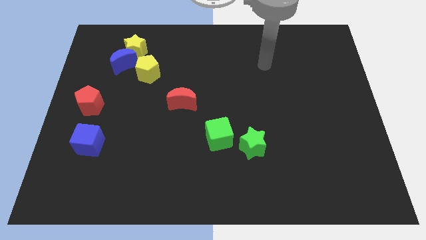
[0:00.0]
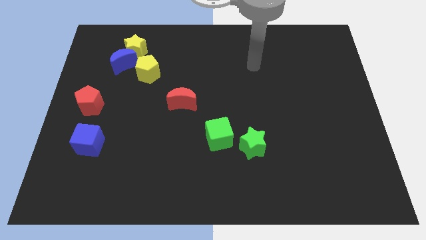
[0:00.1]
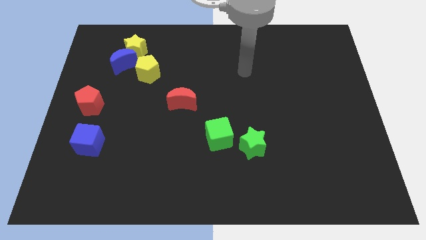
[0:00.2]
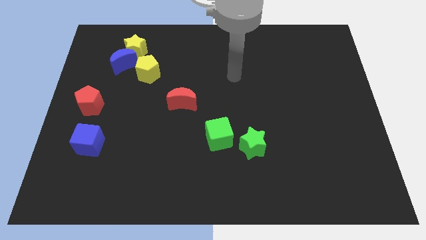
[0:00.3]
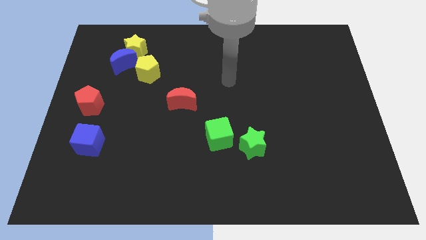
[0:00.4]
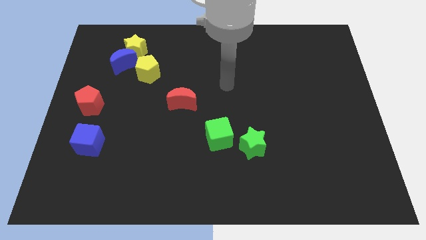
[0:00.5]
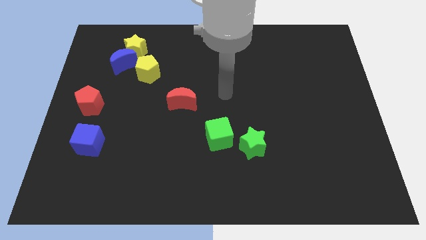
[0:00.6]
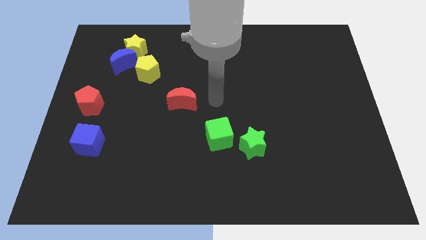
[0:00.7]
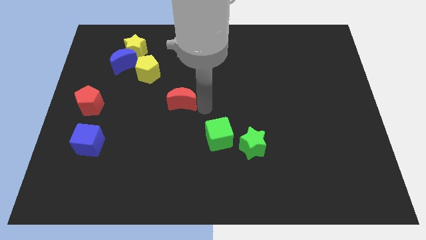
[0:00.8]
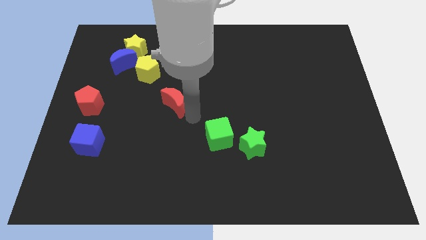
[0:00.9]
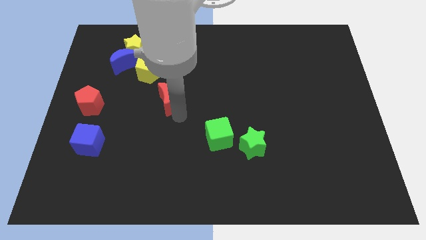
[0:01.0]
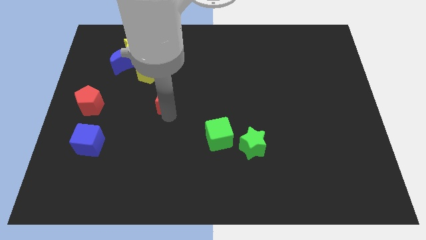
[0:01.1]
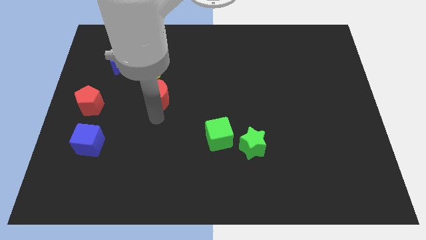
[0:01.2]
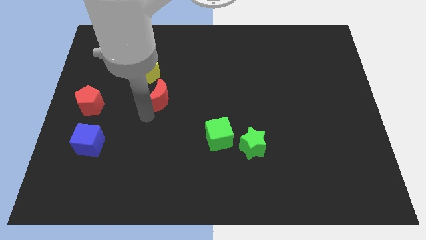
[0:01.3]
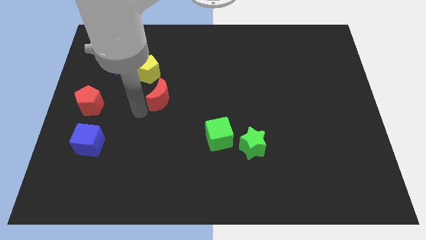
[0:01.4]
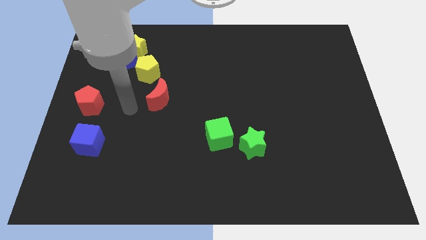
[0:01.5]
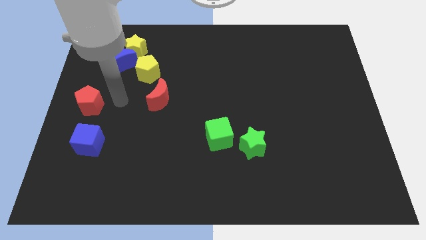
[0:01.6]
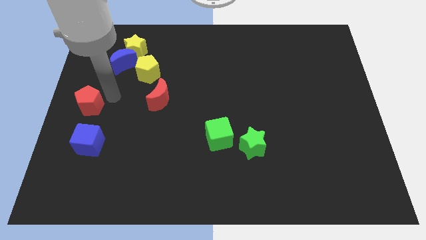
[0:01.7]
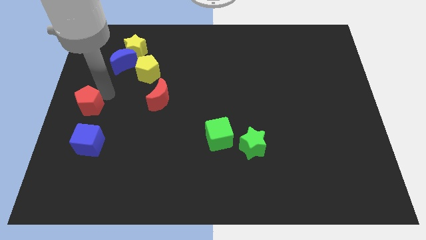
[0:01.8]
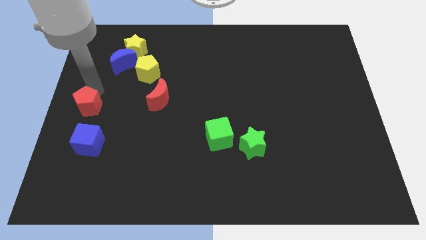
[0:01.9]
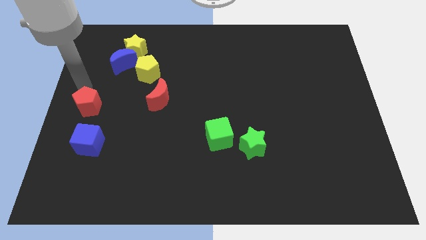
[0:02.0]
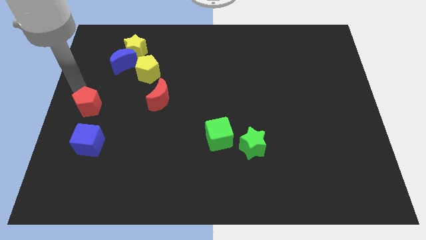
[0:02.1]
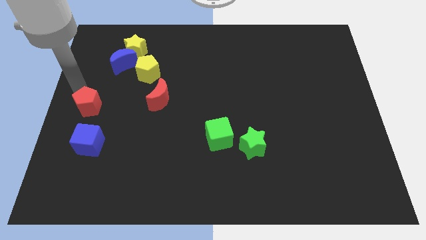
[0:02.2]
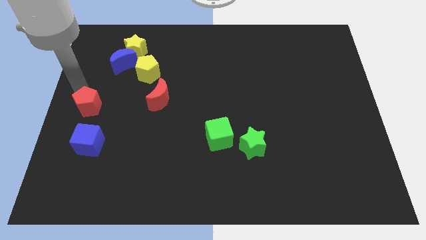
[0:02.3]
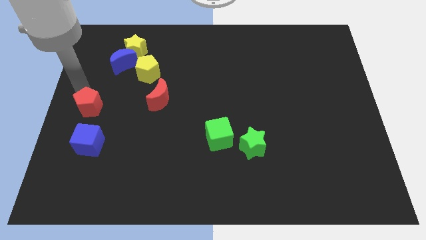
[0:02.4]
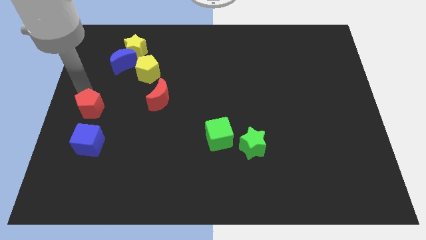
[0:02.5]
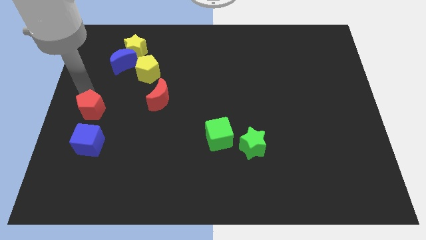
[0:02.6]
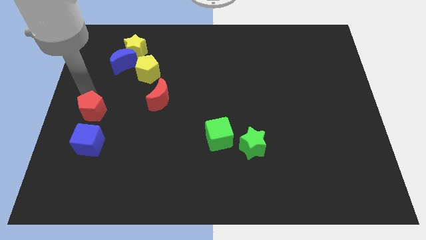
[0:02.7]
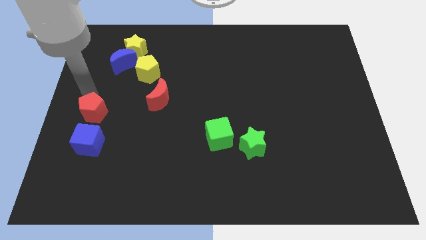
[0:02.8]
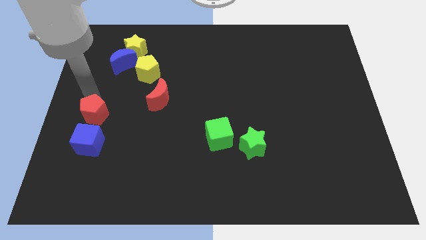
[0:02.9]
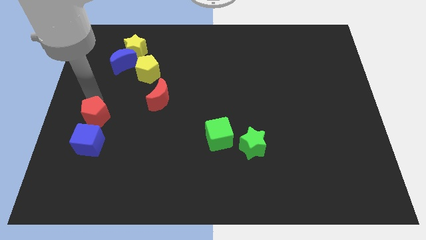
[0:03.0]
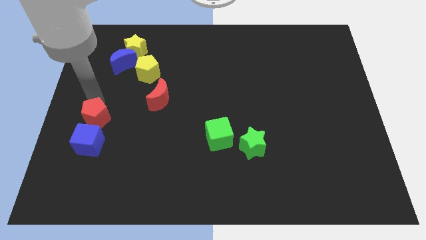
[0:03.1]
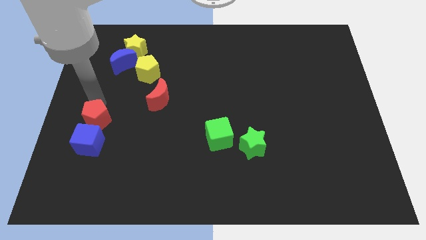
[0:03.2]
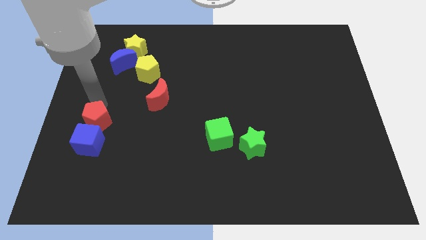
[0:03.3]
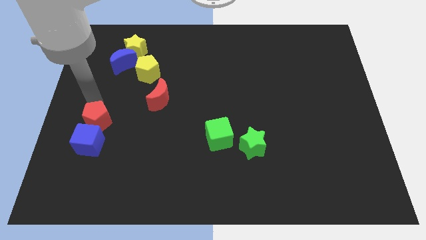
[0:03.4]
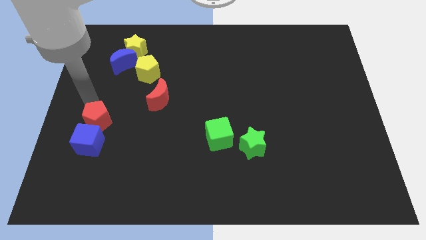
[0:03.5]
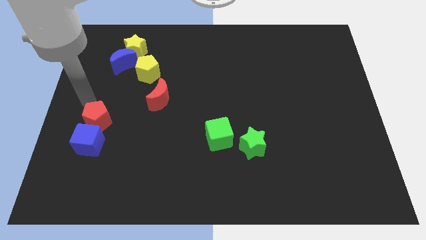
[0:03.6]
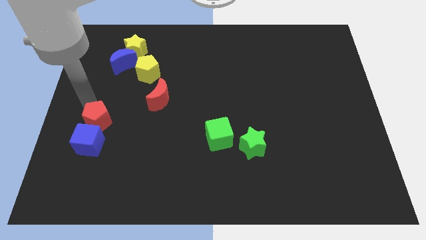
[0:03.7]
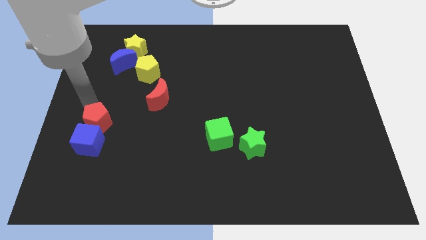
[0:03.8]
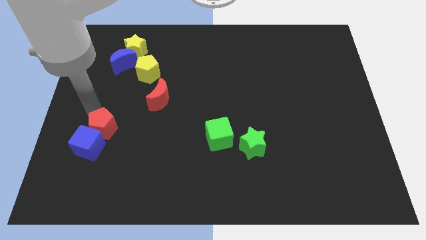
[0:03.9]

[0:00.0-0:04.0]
slightly push the red pentagon diagonally down and to the right

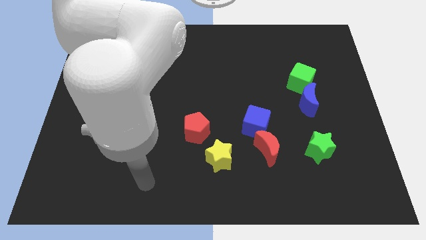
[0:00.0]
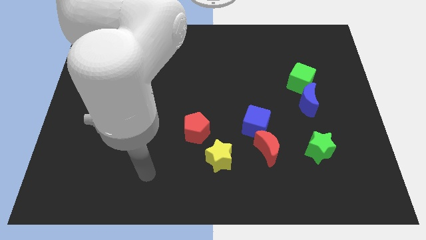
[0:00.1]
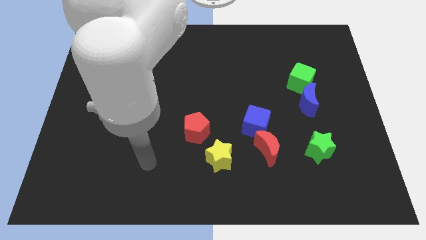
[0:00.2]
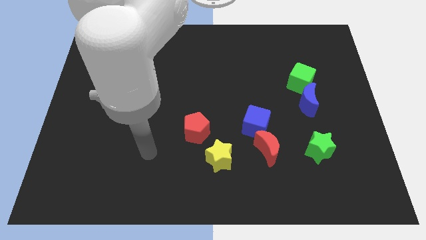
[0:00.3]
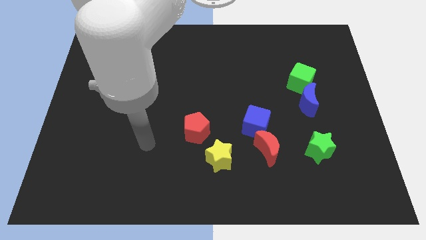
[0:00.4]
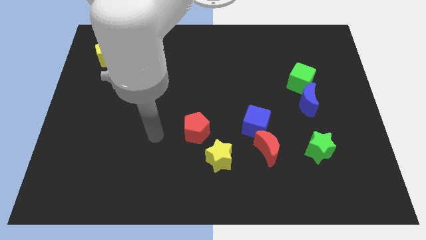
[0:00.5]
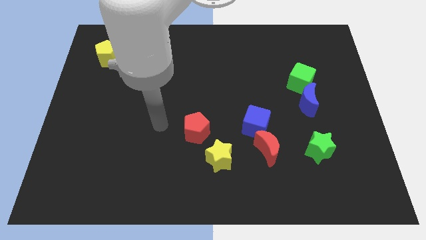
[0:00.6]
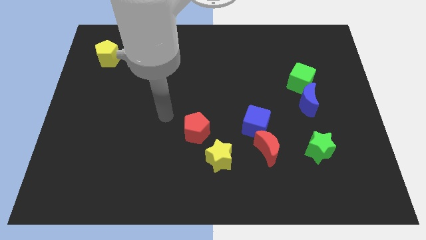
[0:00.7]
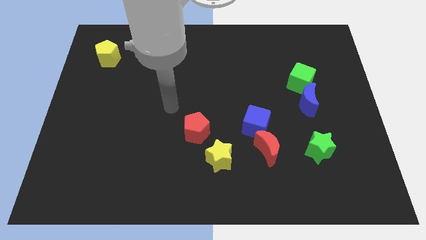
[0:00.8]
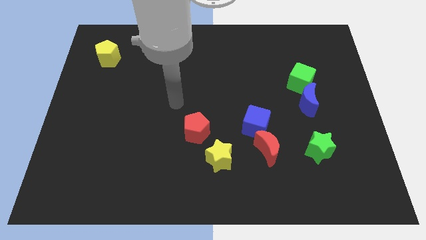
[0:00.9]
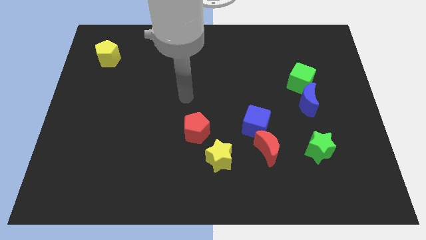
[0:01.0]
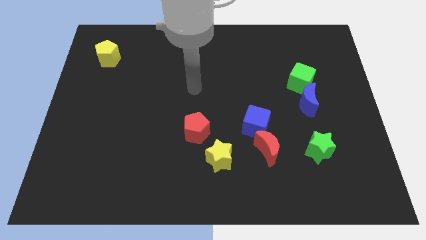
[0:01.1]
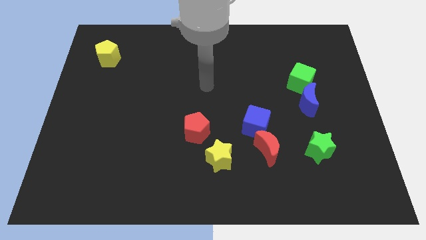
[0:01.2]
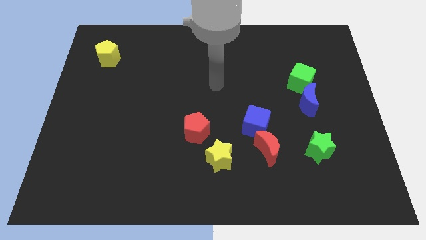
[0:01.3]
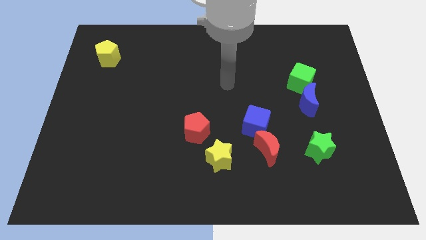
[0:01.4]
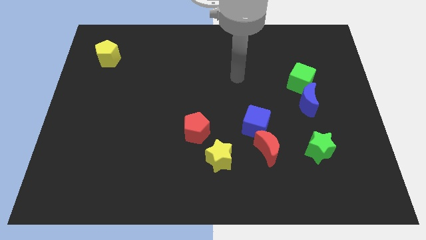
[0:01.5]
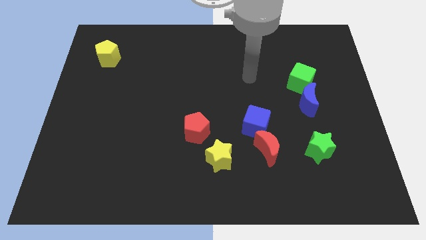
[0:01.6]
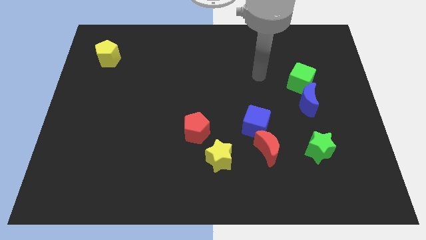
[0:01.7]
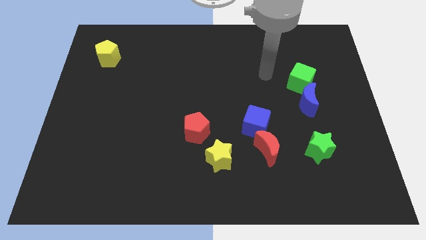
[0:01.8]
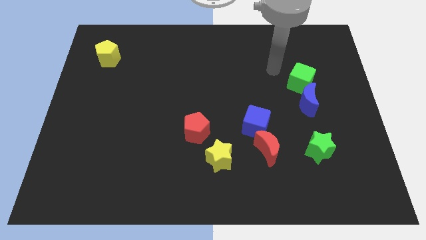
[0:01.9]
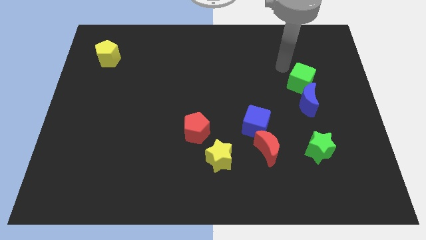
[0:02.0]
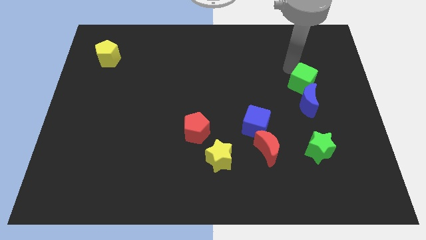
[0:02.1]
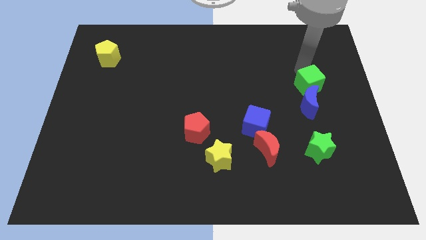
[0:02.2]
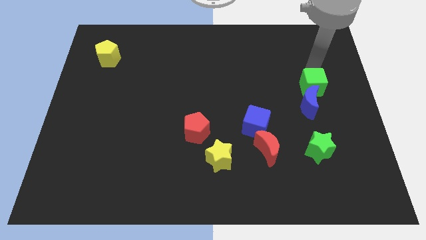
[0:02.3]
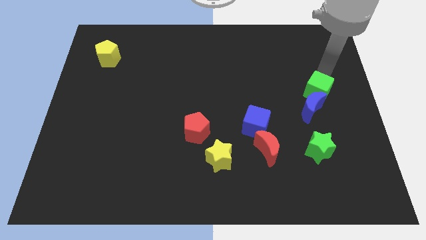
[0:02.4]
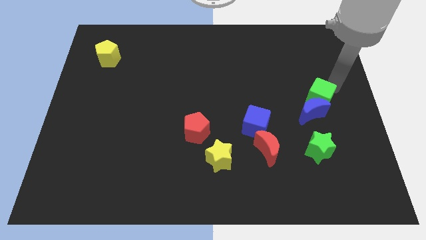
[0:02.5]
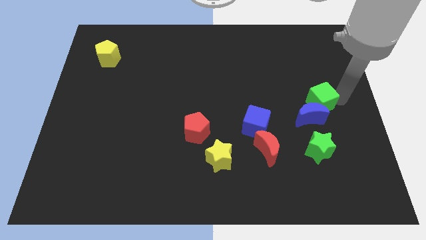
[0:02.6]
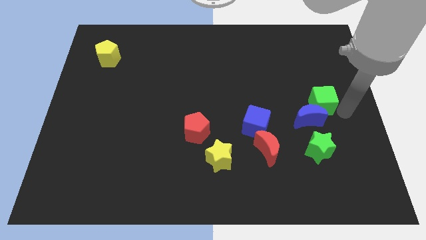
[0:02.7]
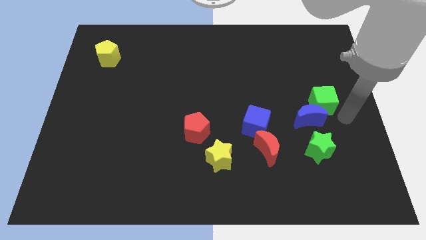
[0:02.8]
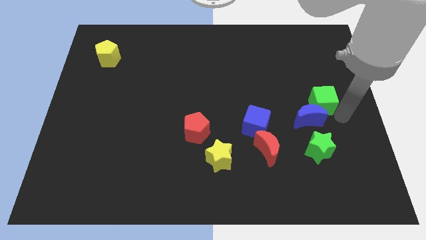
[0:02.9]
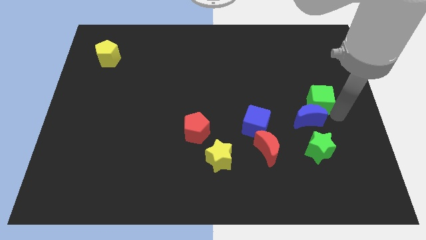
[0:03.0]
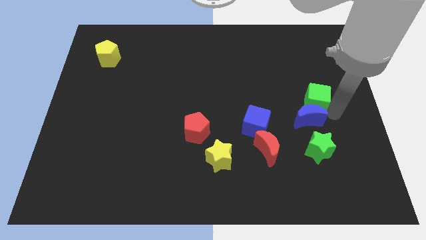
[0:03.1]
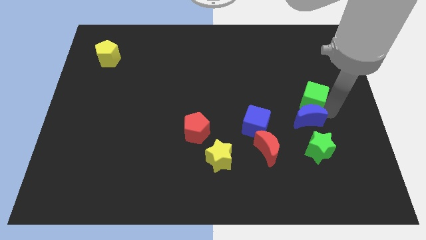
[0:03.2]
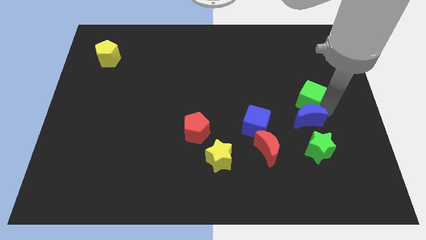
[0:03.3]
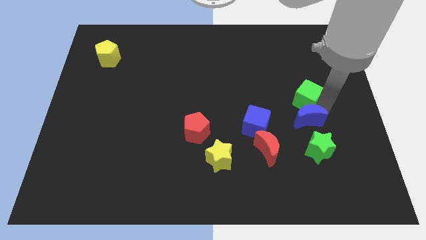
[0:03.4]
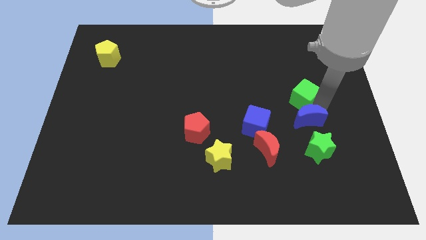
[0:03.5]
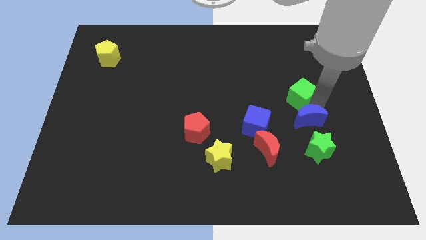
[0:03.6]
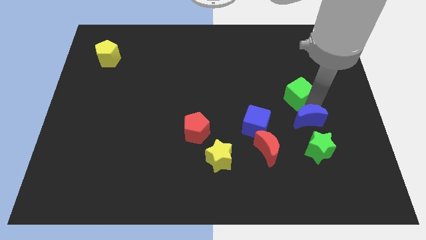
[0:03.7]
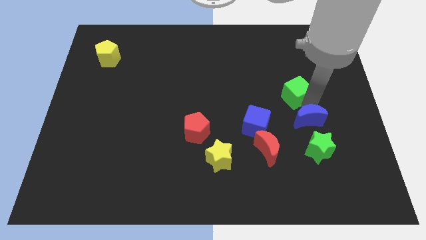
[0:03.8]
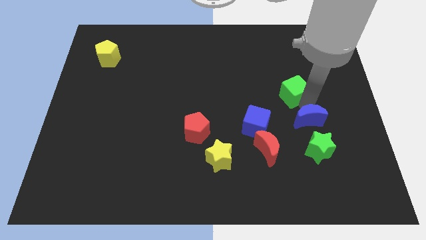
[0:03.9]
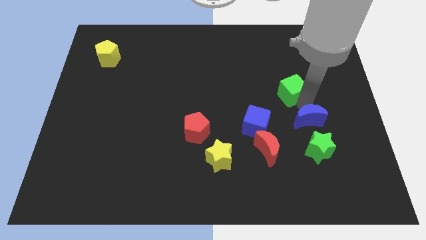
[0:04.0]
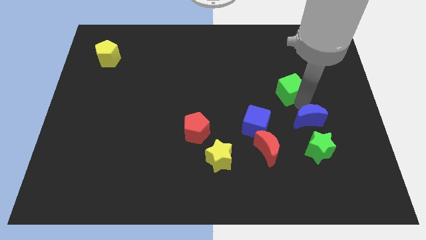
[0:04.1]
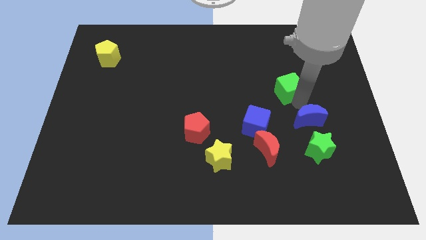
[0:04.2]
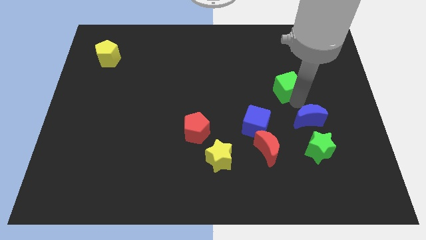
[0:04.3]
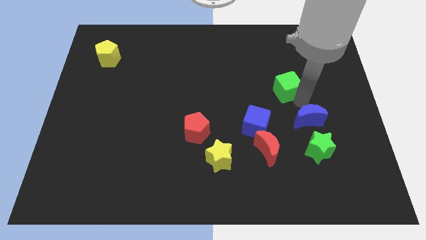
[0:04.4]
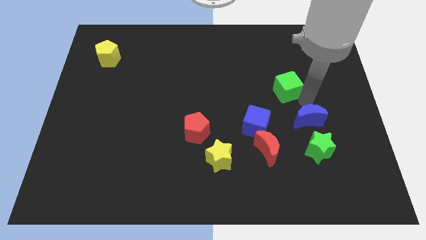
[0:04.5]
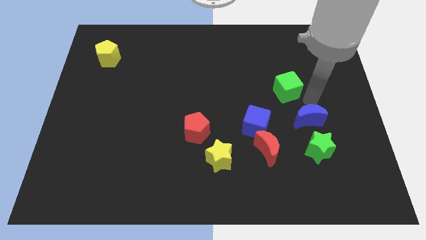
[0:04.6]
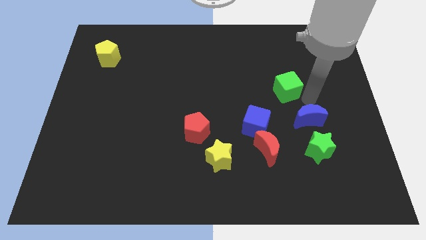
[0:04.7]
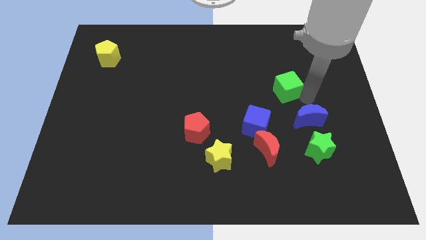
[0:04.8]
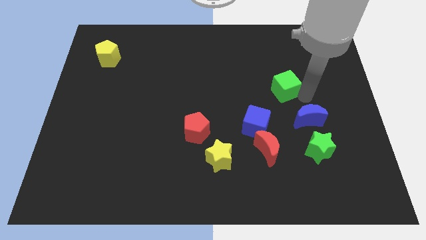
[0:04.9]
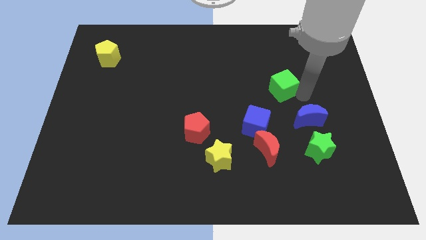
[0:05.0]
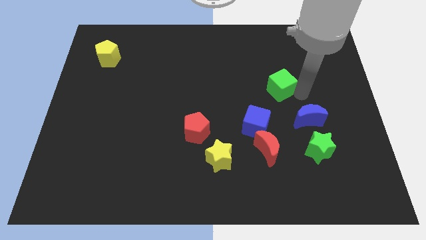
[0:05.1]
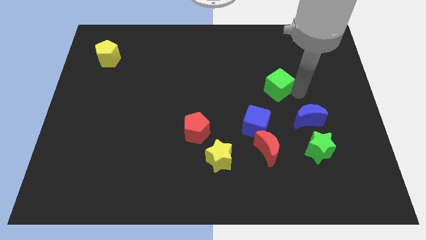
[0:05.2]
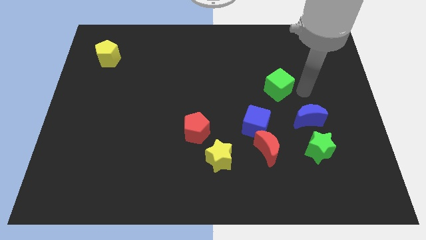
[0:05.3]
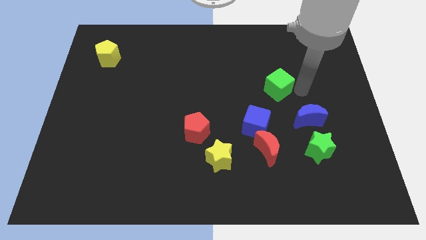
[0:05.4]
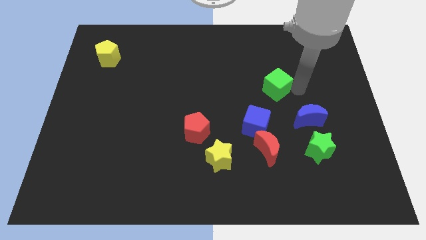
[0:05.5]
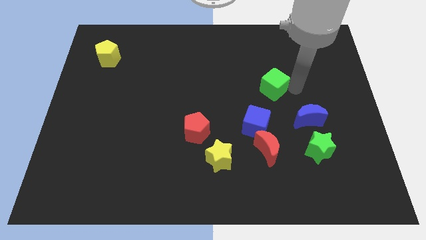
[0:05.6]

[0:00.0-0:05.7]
slightly push the green cube to the left
